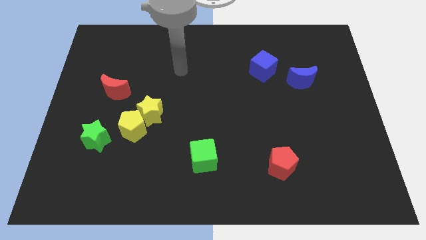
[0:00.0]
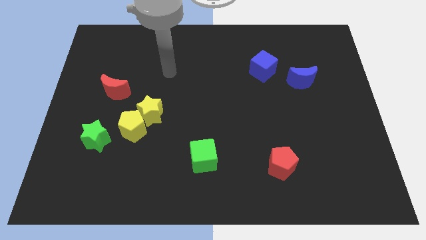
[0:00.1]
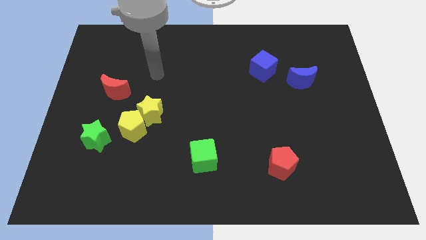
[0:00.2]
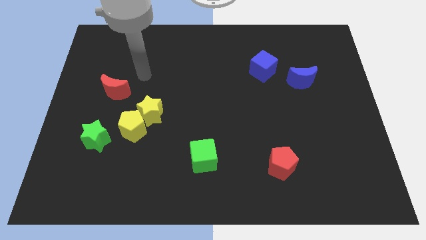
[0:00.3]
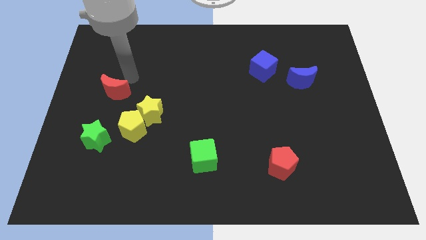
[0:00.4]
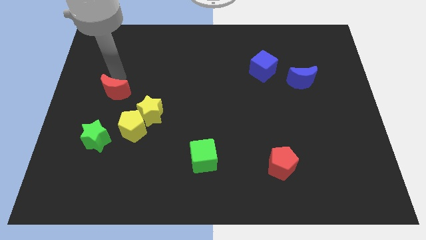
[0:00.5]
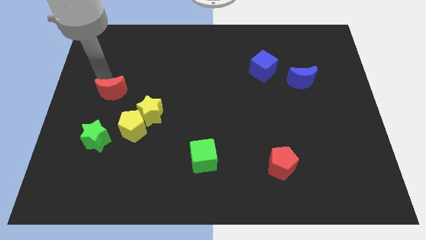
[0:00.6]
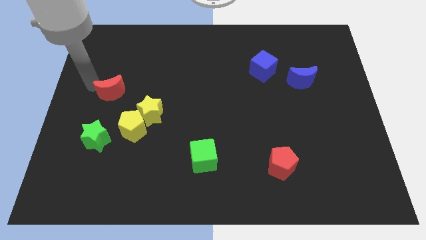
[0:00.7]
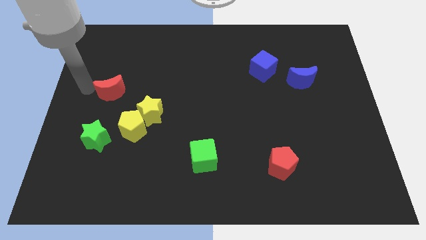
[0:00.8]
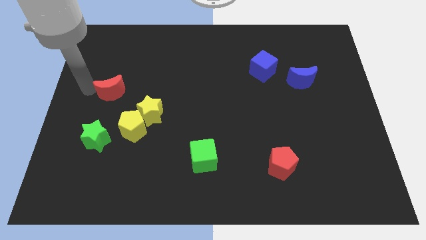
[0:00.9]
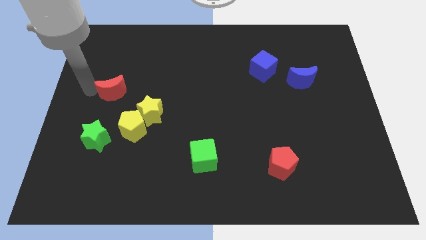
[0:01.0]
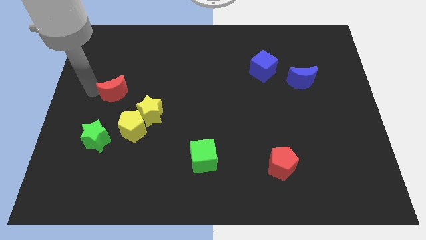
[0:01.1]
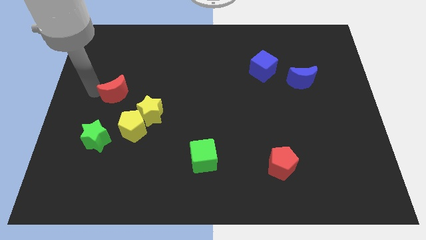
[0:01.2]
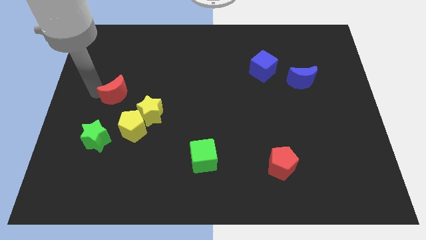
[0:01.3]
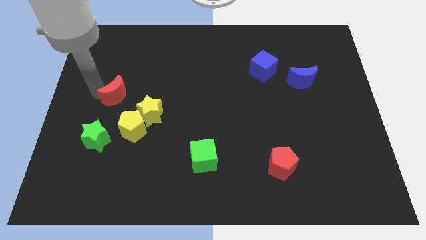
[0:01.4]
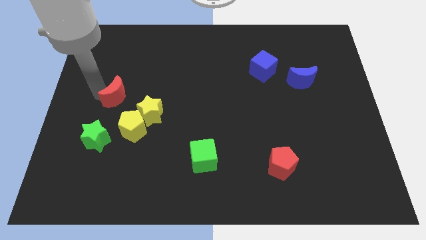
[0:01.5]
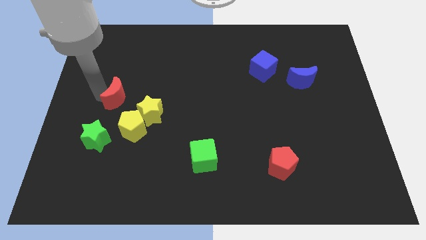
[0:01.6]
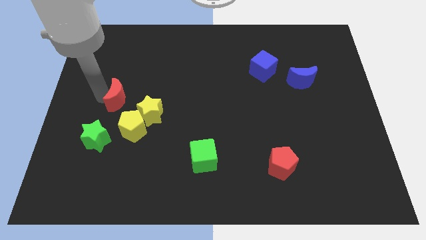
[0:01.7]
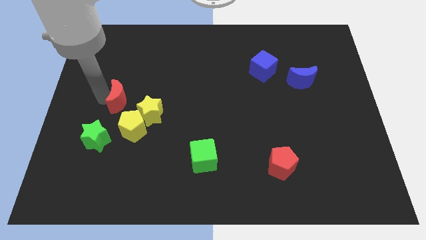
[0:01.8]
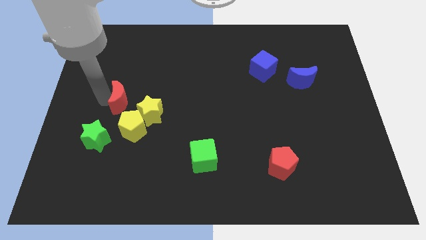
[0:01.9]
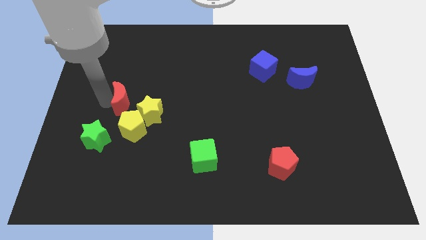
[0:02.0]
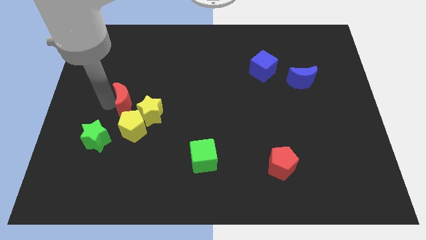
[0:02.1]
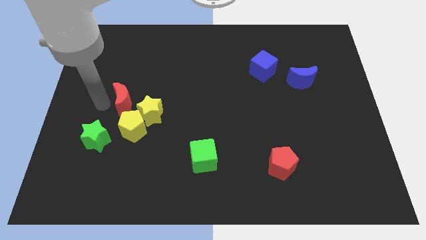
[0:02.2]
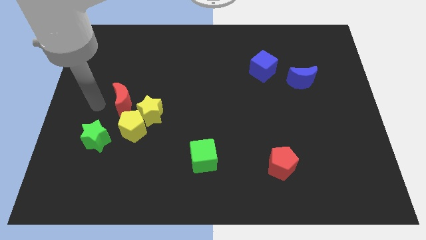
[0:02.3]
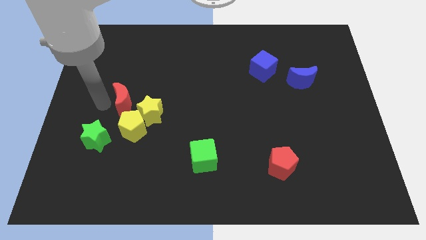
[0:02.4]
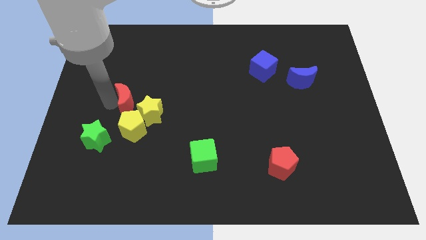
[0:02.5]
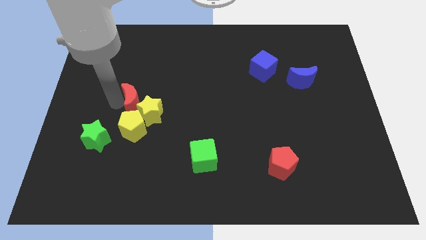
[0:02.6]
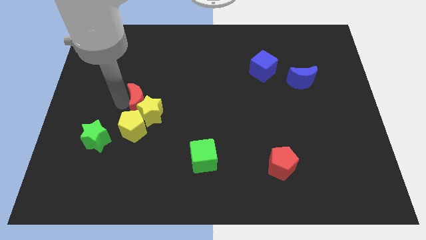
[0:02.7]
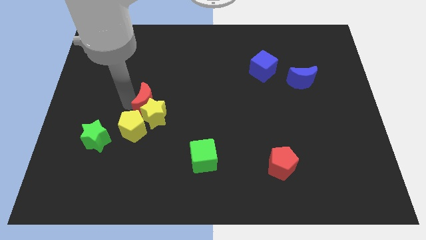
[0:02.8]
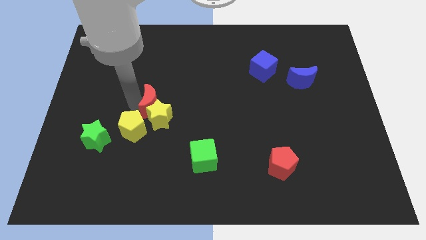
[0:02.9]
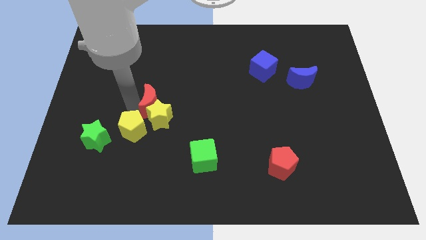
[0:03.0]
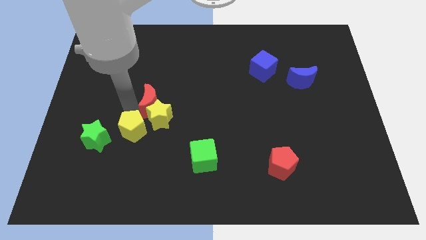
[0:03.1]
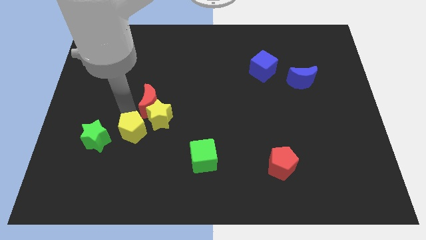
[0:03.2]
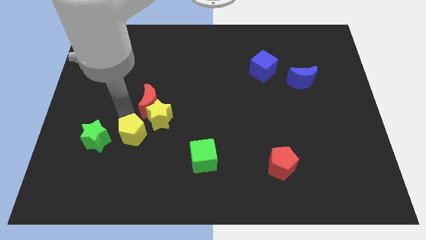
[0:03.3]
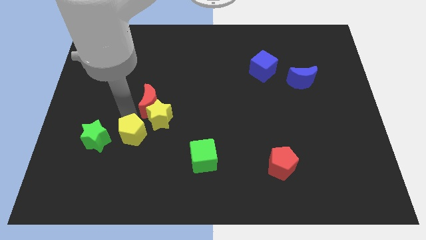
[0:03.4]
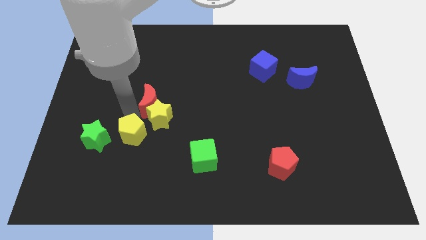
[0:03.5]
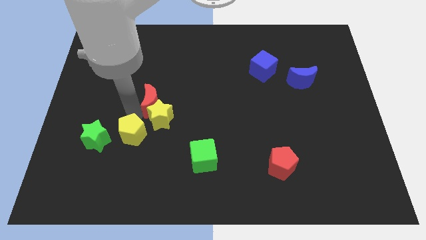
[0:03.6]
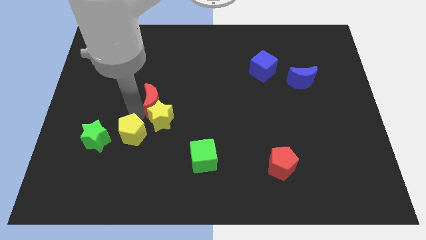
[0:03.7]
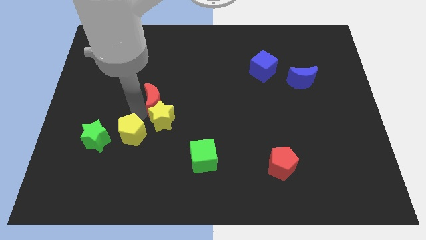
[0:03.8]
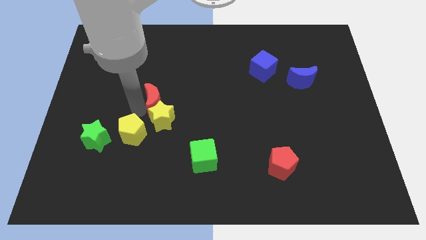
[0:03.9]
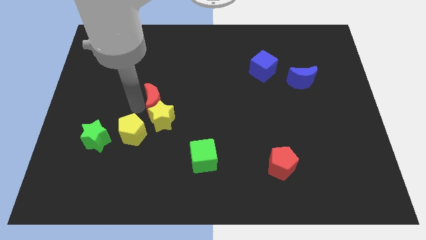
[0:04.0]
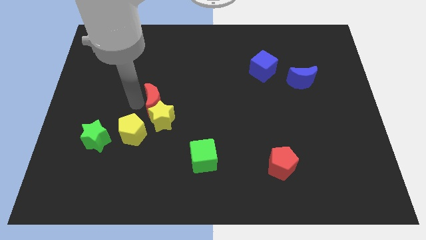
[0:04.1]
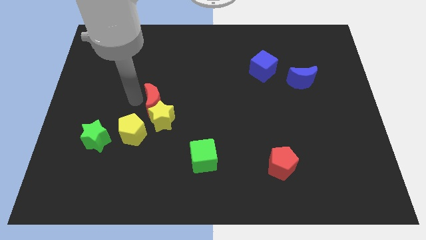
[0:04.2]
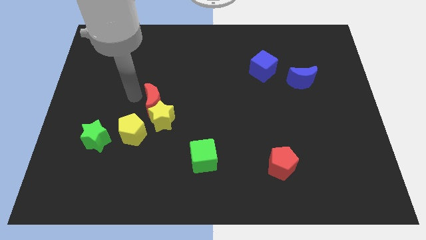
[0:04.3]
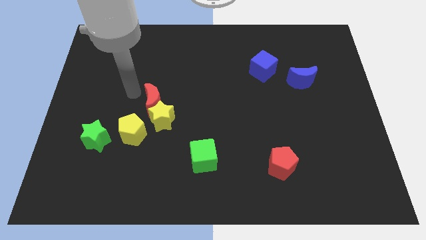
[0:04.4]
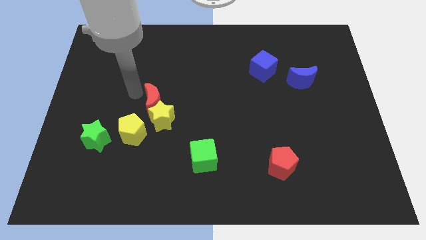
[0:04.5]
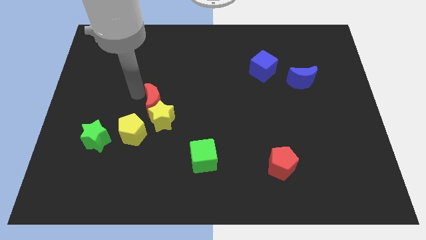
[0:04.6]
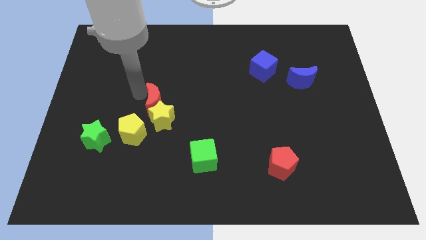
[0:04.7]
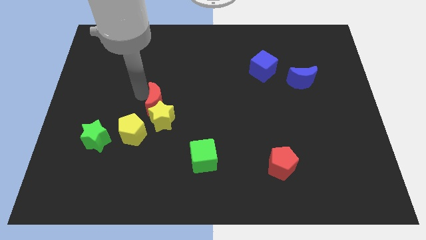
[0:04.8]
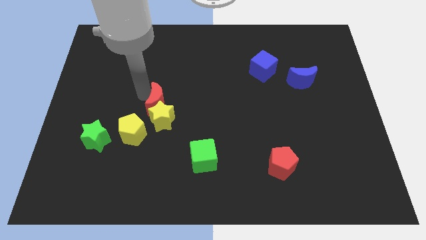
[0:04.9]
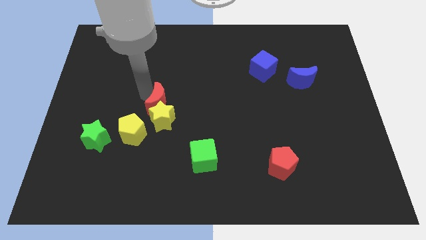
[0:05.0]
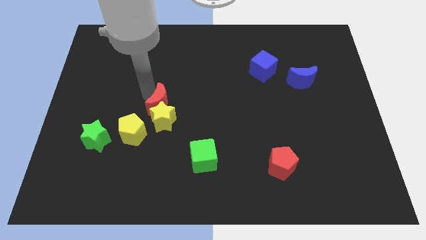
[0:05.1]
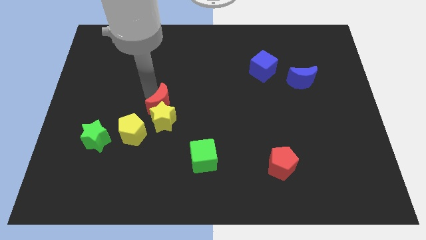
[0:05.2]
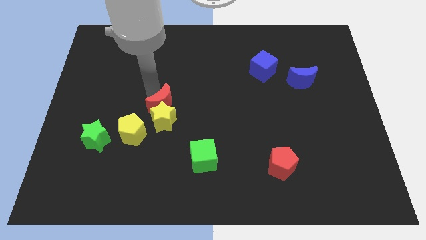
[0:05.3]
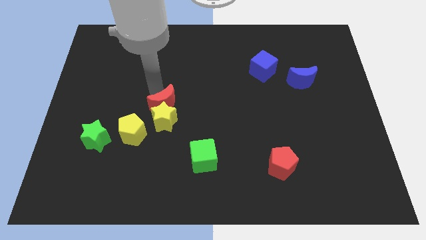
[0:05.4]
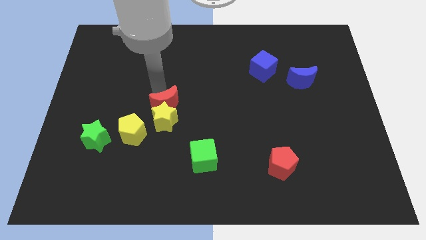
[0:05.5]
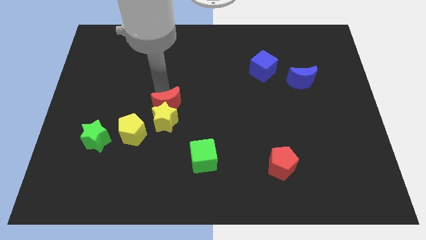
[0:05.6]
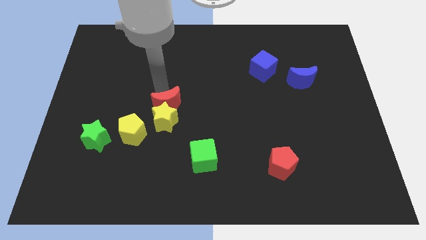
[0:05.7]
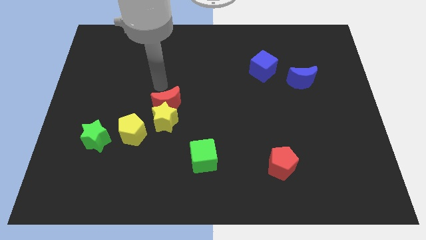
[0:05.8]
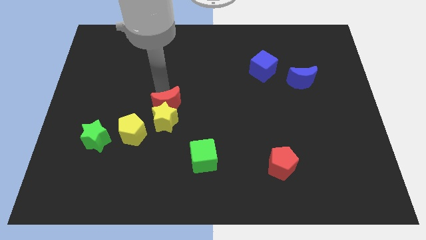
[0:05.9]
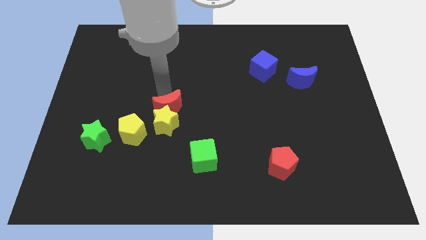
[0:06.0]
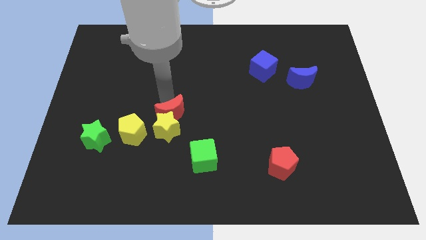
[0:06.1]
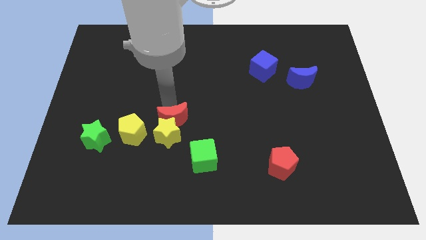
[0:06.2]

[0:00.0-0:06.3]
push the red moon to the right side of the yellow pentagon
